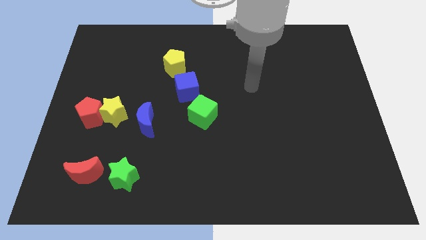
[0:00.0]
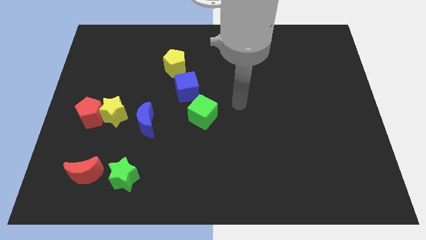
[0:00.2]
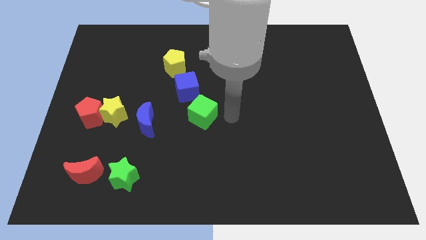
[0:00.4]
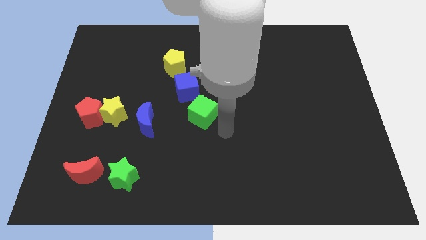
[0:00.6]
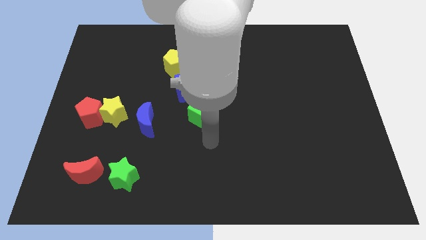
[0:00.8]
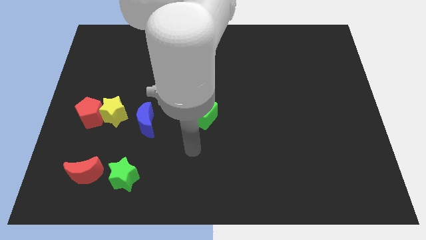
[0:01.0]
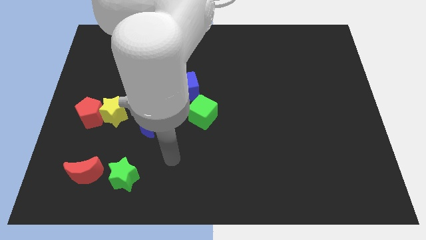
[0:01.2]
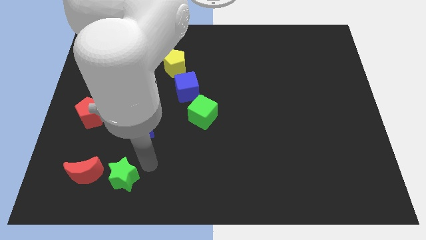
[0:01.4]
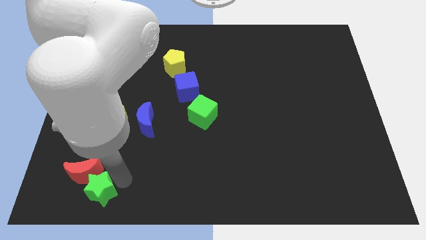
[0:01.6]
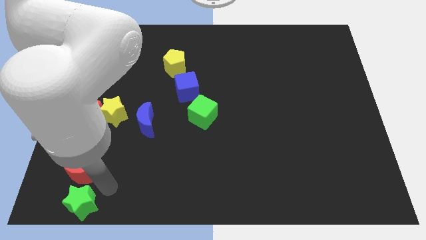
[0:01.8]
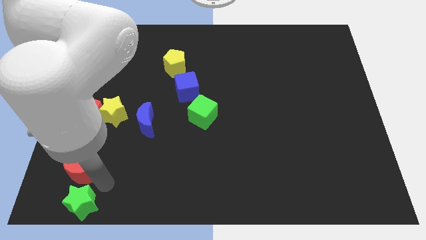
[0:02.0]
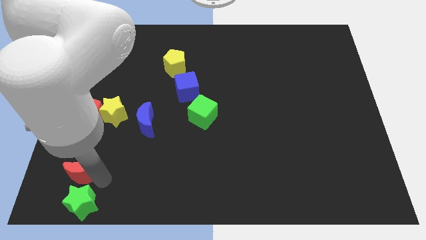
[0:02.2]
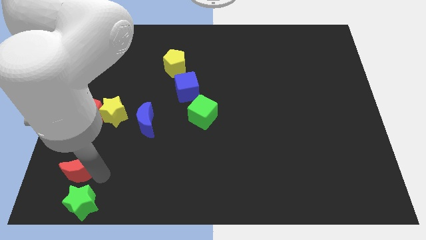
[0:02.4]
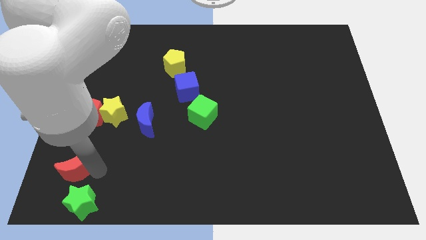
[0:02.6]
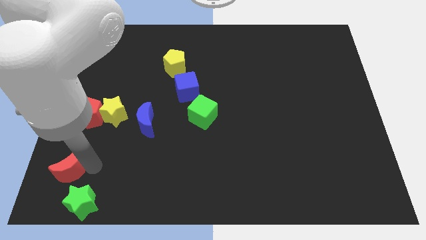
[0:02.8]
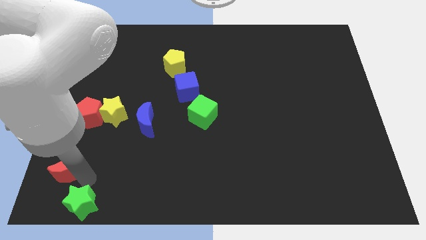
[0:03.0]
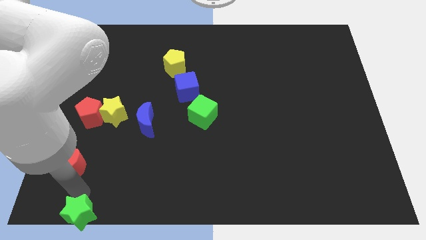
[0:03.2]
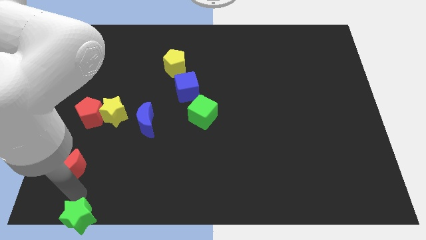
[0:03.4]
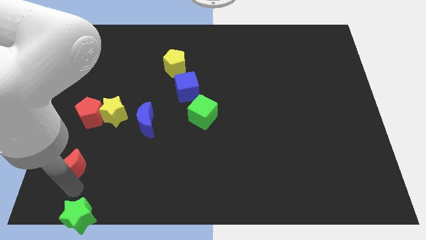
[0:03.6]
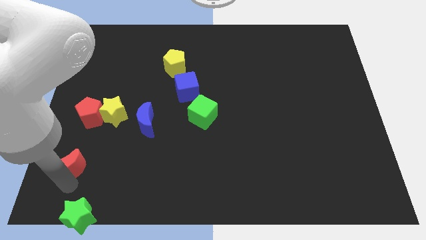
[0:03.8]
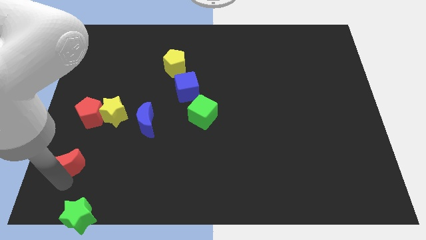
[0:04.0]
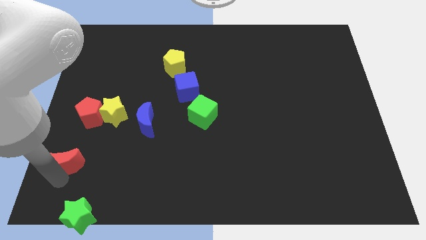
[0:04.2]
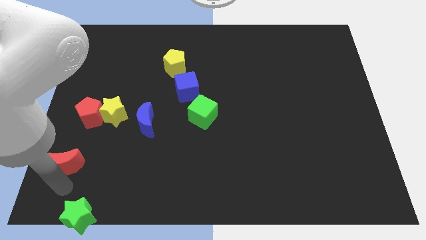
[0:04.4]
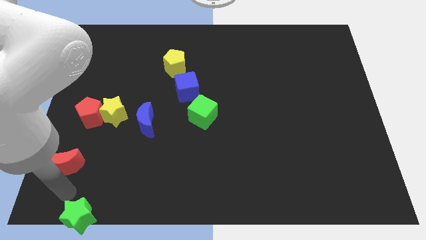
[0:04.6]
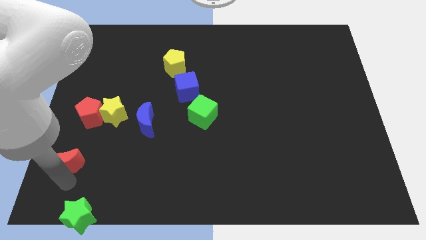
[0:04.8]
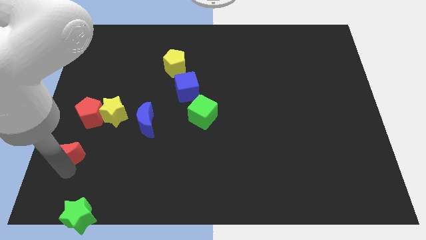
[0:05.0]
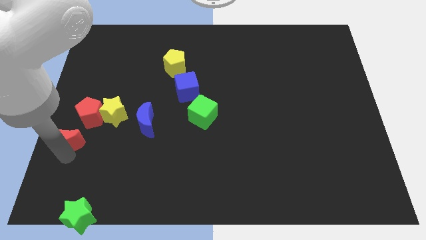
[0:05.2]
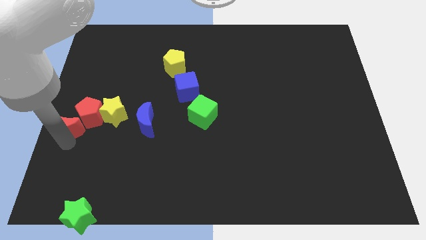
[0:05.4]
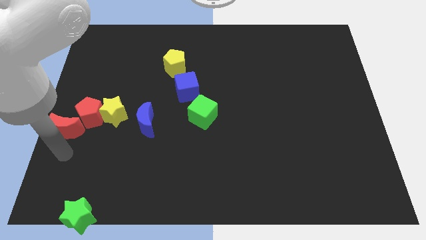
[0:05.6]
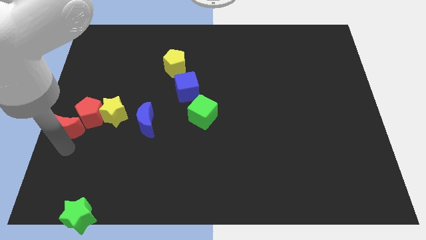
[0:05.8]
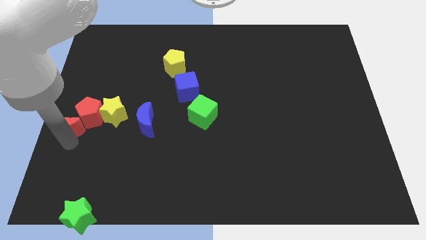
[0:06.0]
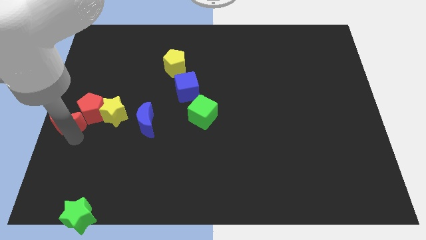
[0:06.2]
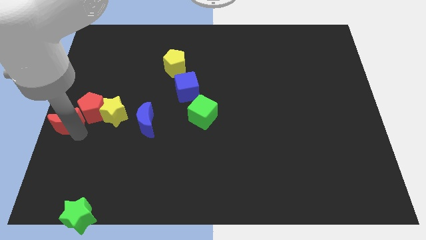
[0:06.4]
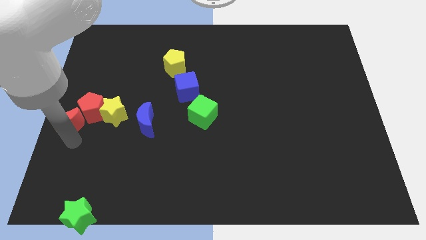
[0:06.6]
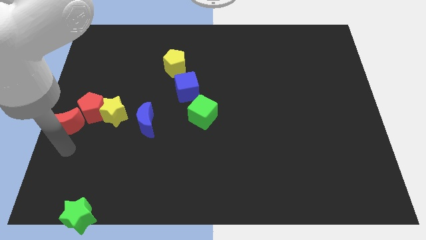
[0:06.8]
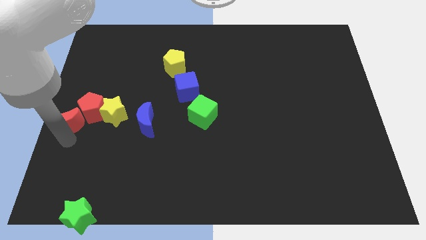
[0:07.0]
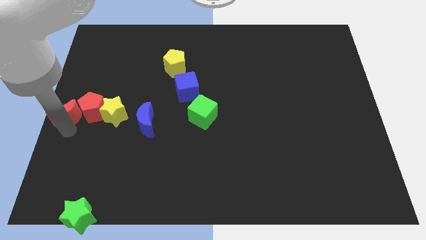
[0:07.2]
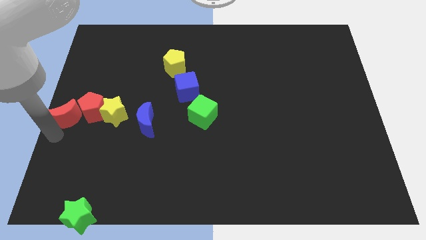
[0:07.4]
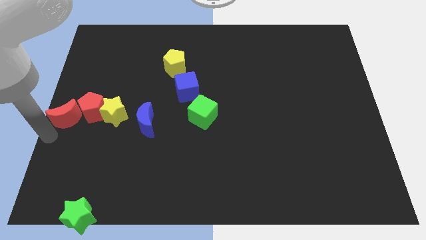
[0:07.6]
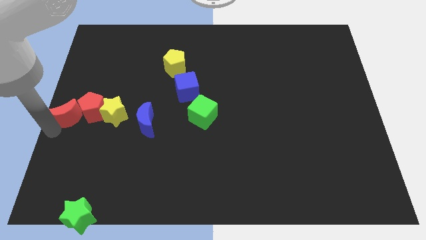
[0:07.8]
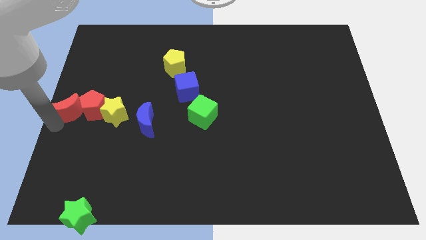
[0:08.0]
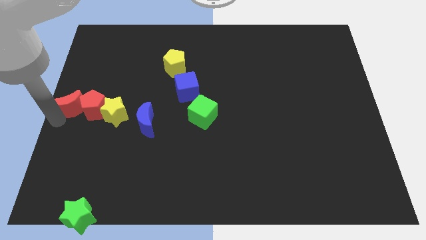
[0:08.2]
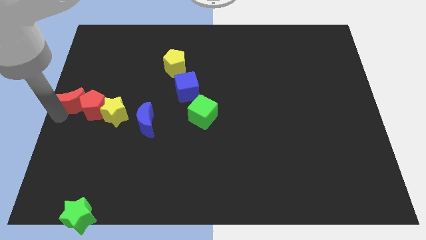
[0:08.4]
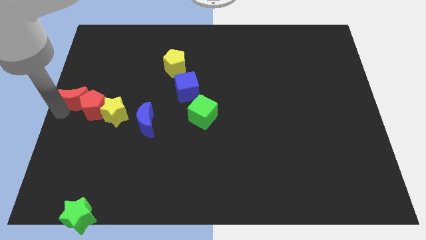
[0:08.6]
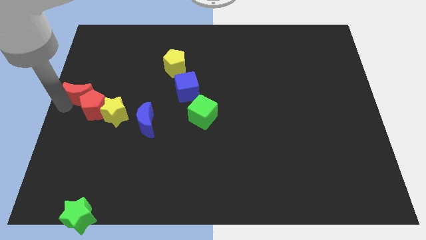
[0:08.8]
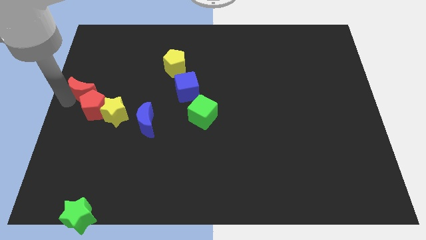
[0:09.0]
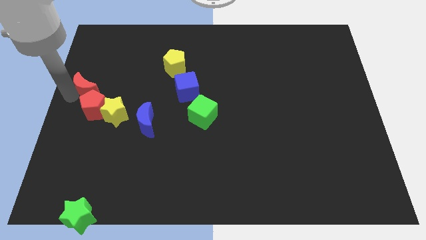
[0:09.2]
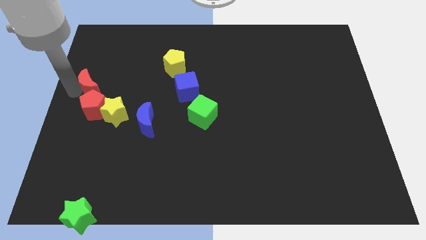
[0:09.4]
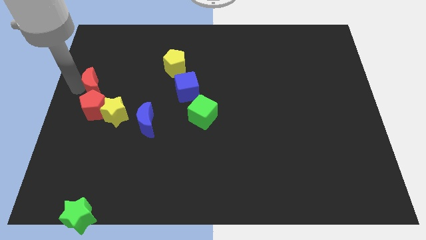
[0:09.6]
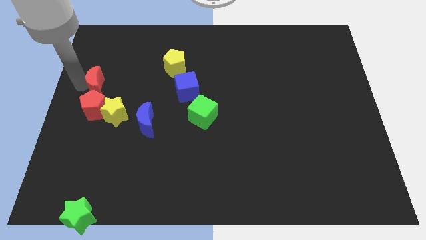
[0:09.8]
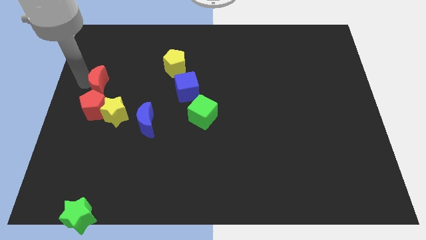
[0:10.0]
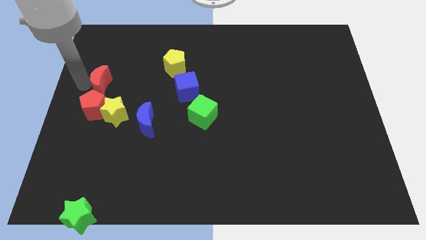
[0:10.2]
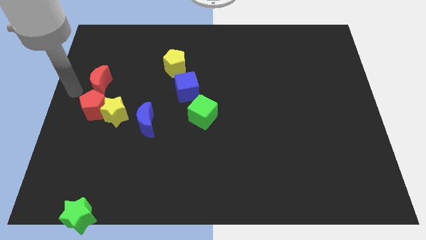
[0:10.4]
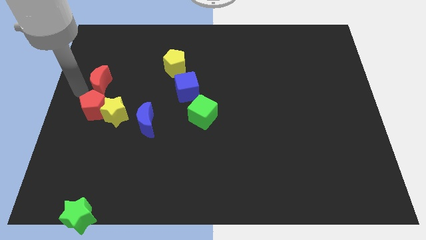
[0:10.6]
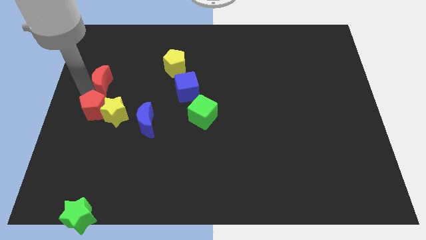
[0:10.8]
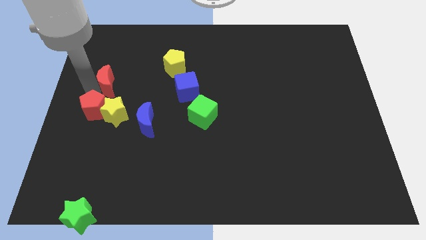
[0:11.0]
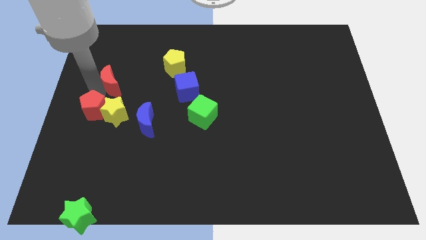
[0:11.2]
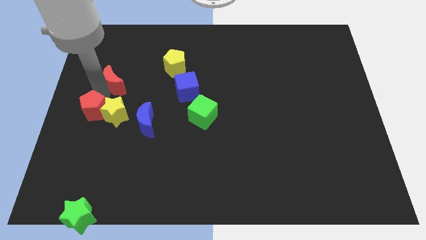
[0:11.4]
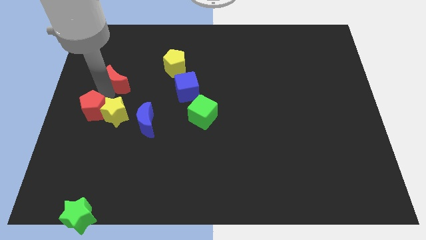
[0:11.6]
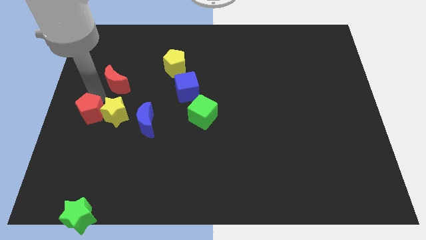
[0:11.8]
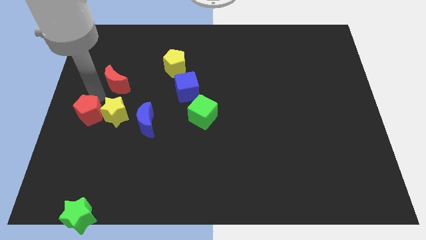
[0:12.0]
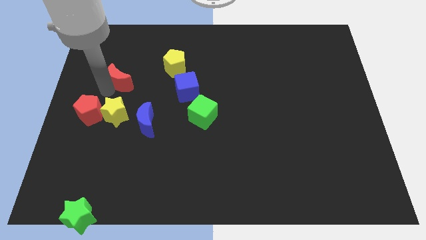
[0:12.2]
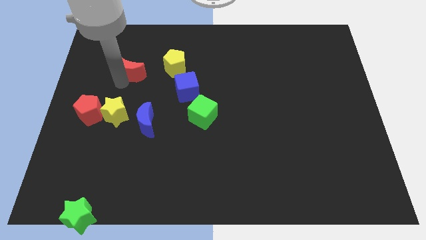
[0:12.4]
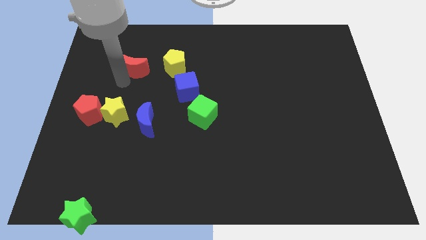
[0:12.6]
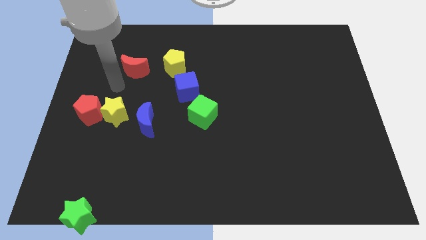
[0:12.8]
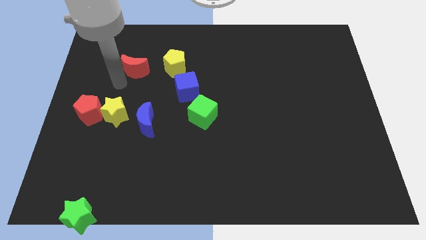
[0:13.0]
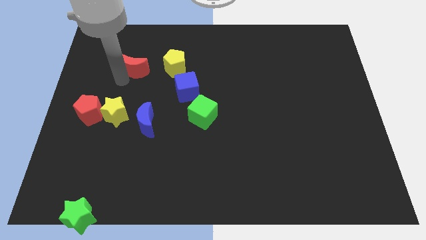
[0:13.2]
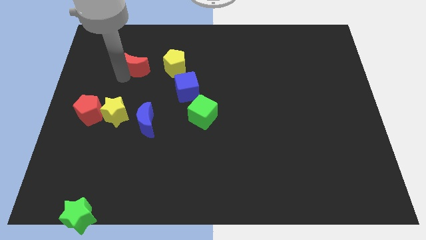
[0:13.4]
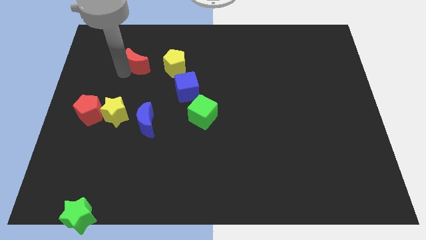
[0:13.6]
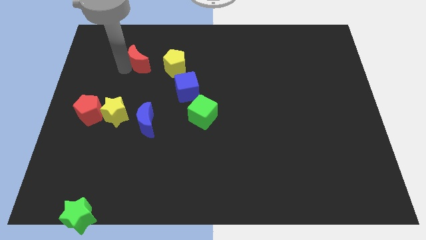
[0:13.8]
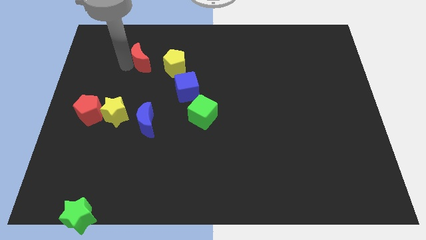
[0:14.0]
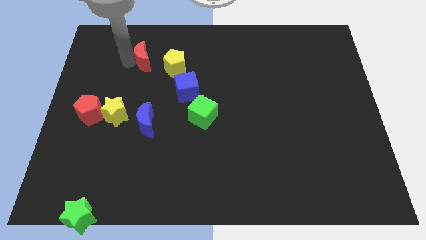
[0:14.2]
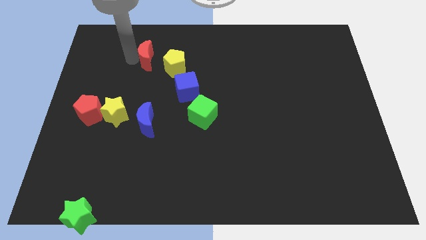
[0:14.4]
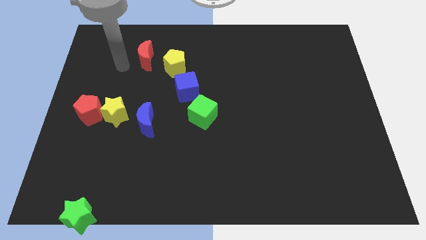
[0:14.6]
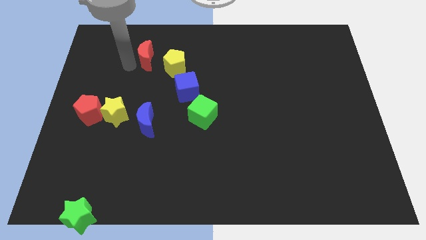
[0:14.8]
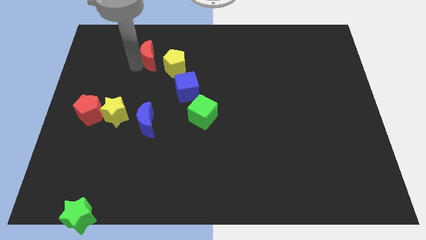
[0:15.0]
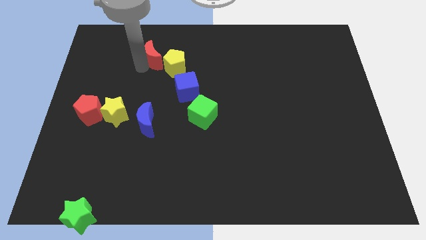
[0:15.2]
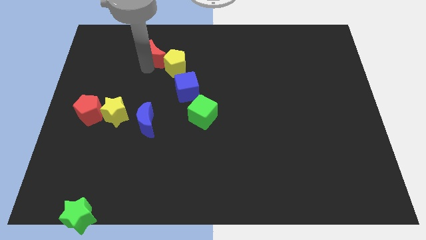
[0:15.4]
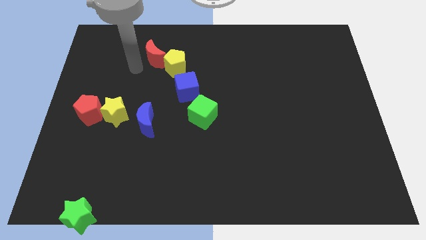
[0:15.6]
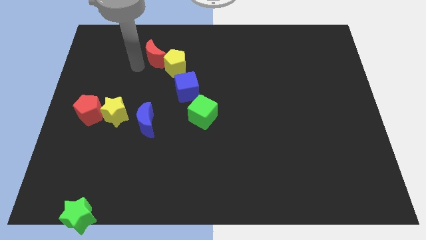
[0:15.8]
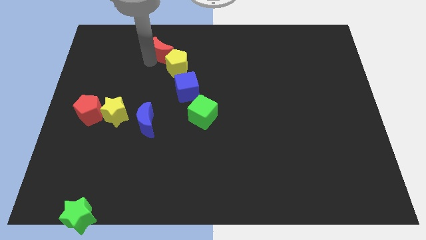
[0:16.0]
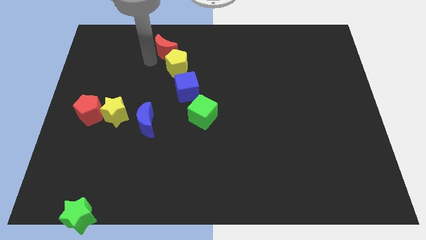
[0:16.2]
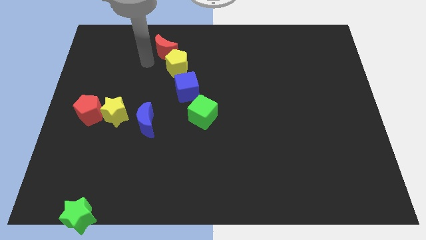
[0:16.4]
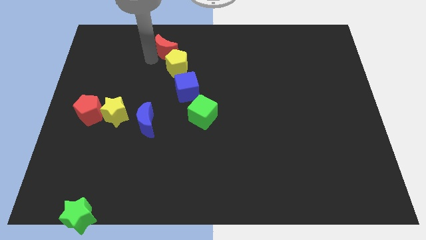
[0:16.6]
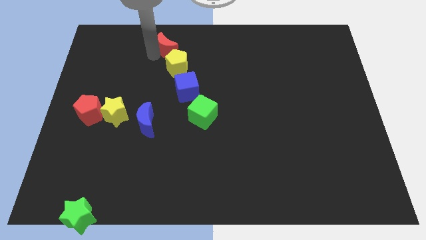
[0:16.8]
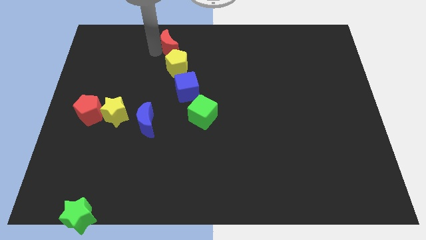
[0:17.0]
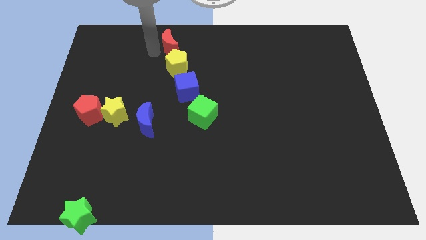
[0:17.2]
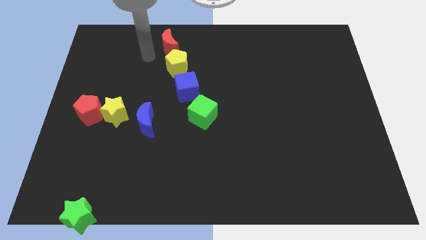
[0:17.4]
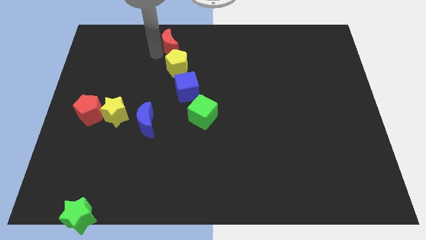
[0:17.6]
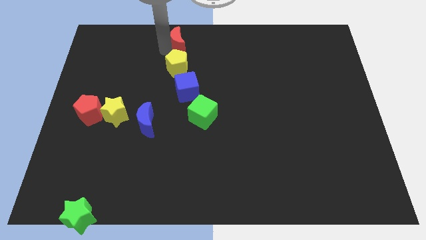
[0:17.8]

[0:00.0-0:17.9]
move the red moon to the top
